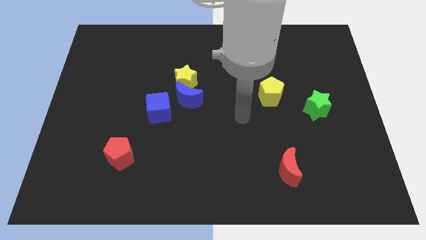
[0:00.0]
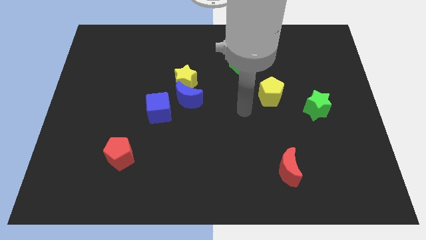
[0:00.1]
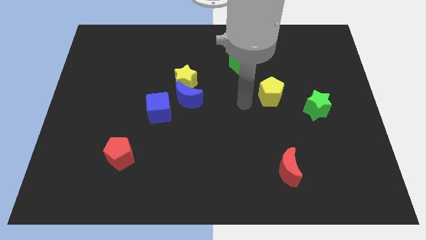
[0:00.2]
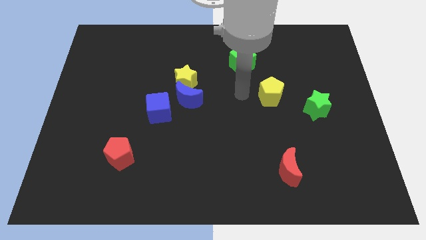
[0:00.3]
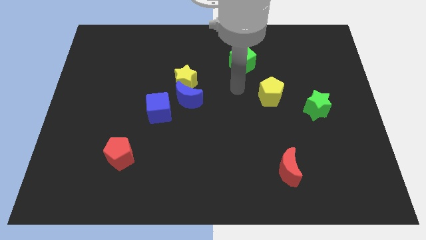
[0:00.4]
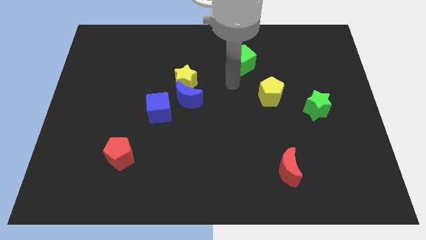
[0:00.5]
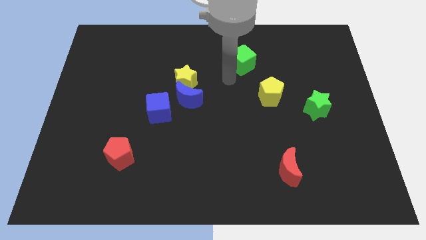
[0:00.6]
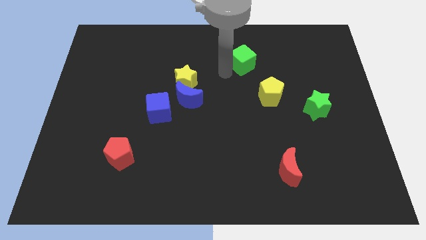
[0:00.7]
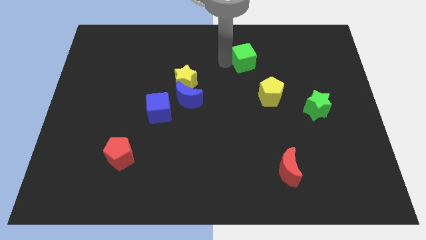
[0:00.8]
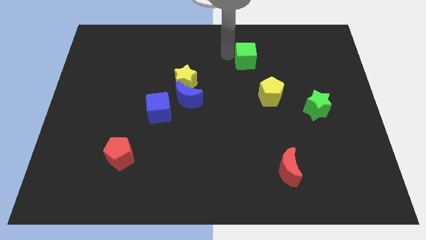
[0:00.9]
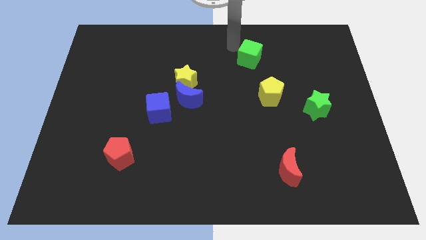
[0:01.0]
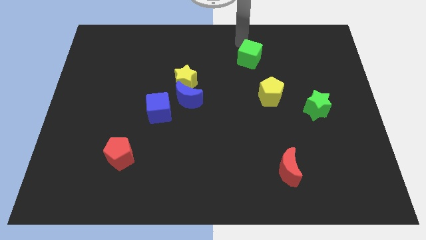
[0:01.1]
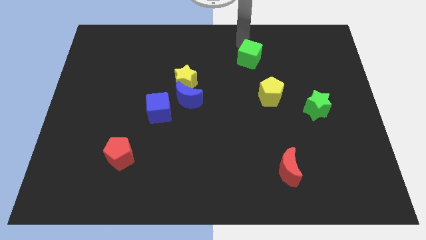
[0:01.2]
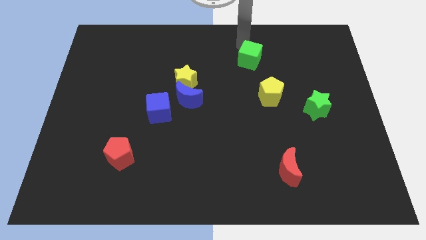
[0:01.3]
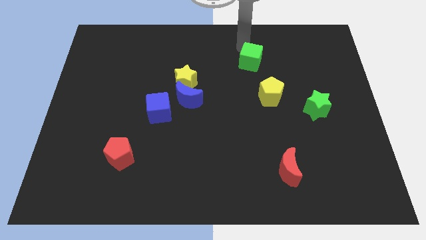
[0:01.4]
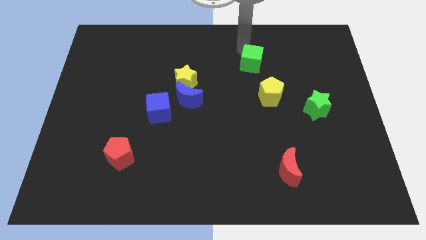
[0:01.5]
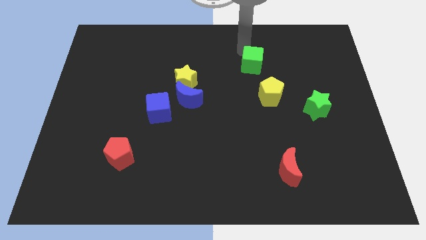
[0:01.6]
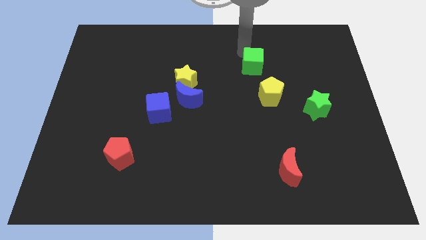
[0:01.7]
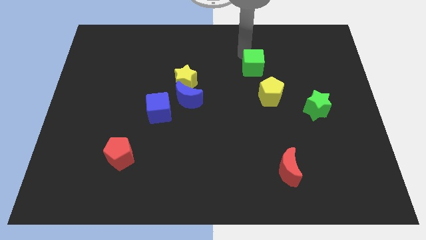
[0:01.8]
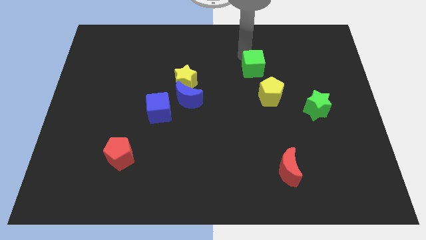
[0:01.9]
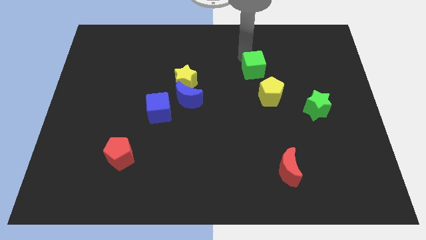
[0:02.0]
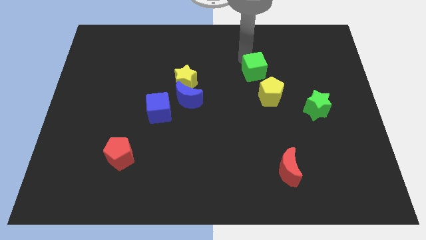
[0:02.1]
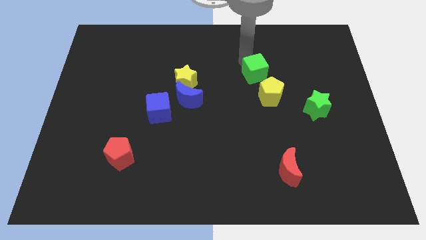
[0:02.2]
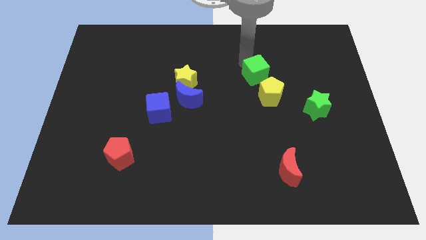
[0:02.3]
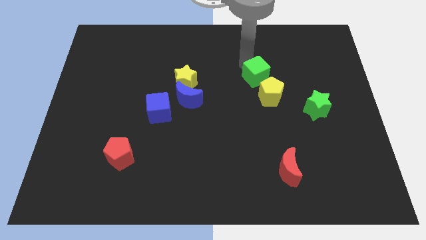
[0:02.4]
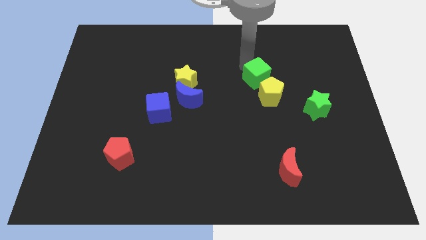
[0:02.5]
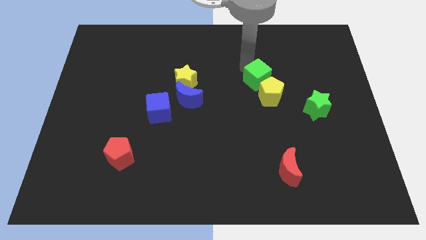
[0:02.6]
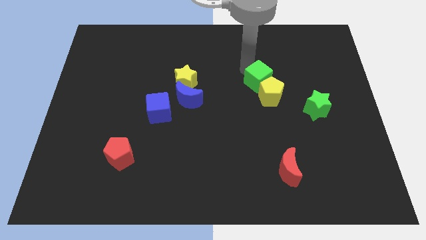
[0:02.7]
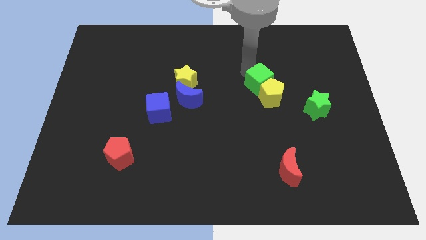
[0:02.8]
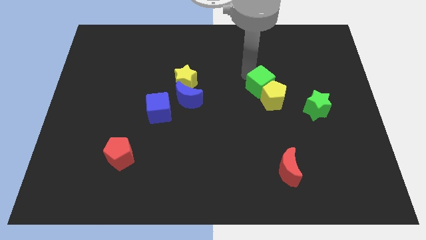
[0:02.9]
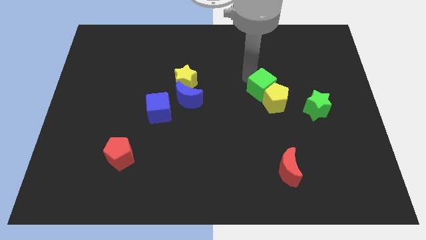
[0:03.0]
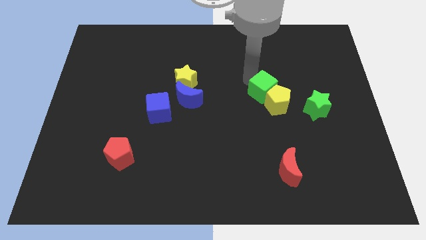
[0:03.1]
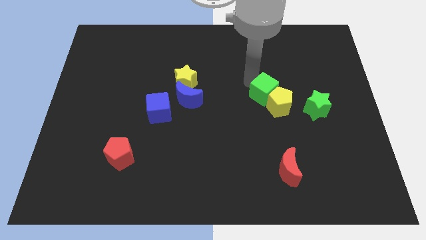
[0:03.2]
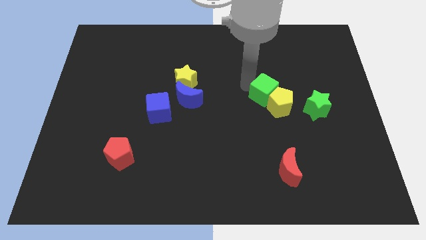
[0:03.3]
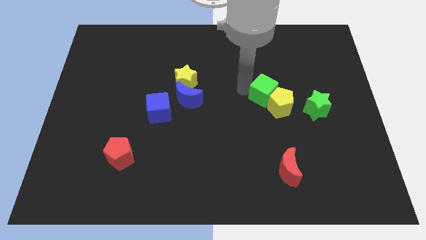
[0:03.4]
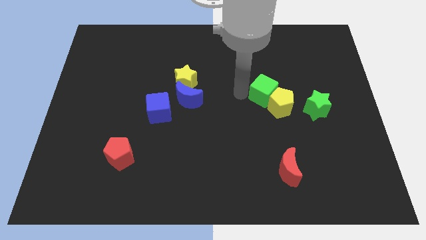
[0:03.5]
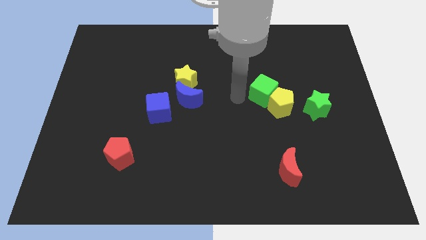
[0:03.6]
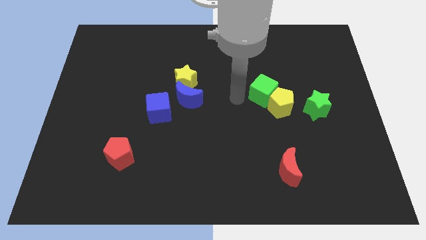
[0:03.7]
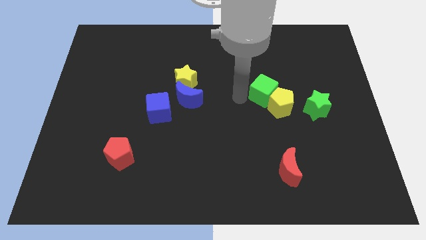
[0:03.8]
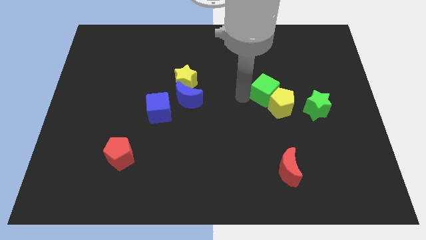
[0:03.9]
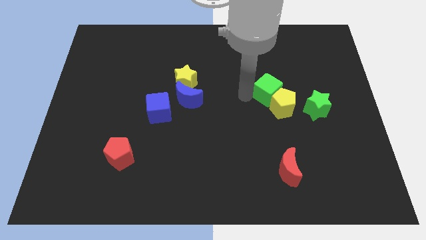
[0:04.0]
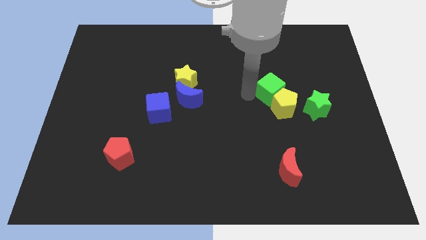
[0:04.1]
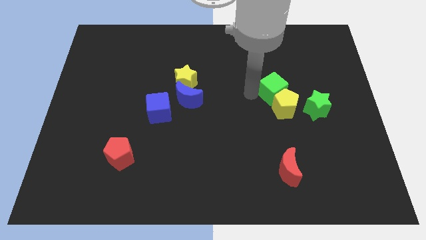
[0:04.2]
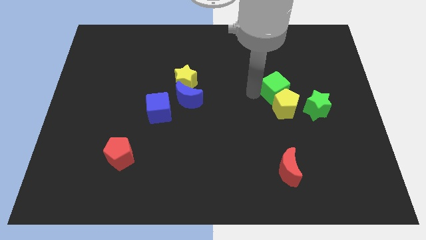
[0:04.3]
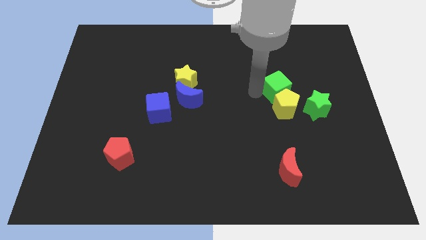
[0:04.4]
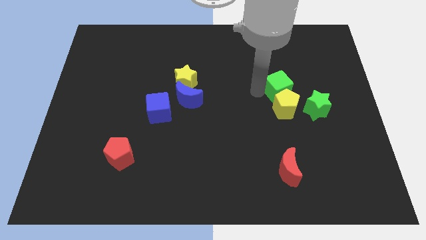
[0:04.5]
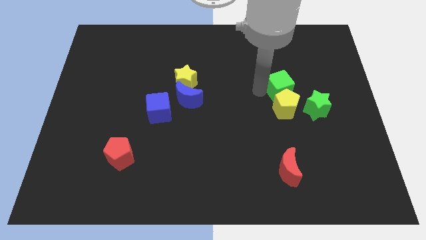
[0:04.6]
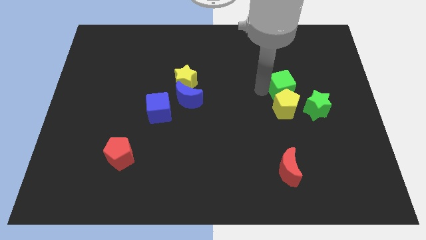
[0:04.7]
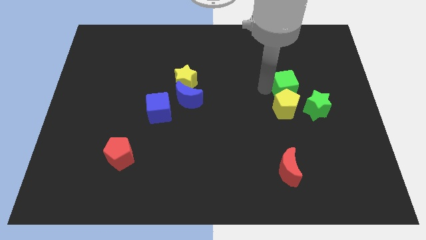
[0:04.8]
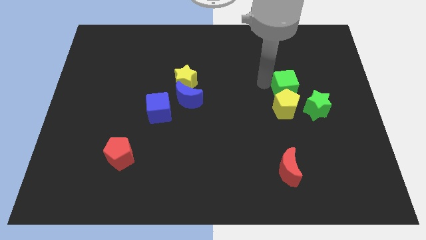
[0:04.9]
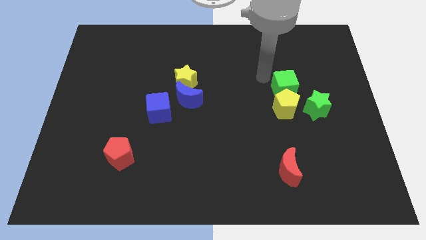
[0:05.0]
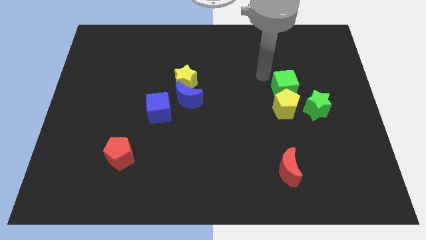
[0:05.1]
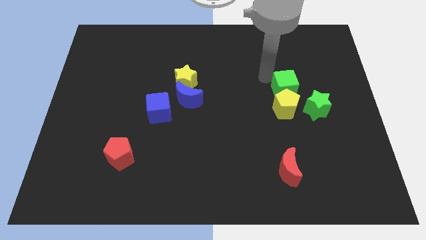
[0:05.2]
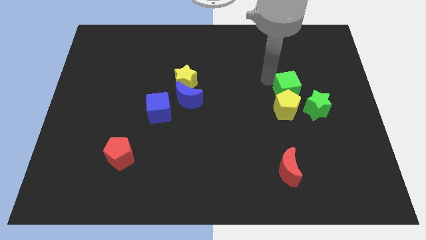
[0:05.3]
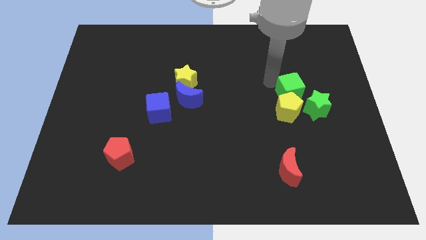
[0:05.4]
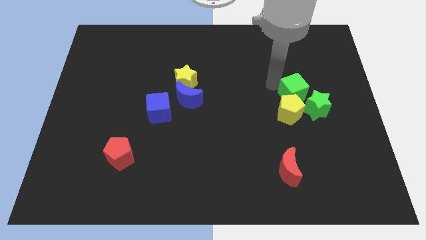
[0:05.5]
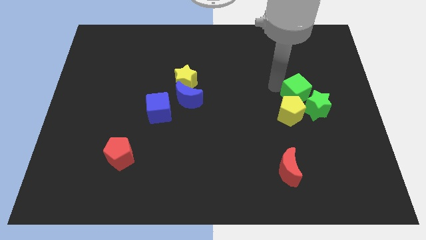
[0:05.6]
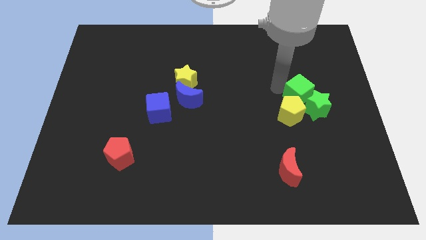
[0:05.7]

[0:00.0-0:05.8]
slide the green cube towards the green star

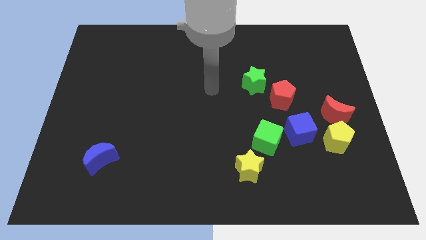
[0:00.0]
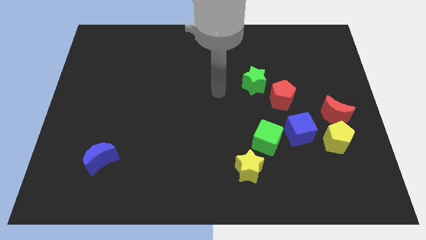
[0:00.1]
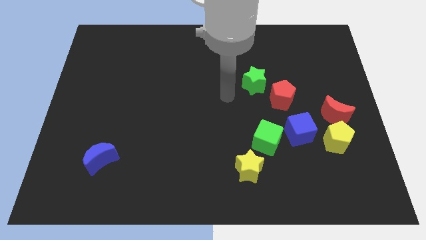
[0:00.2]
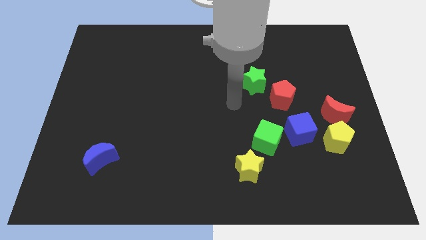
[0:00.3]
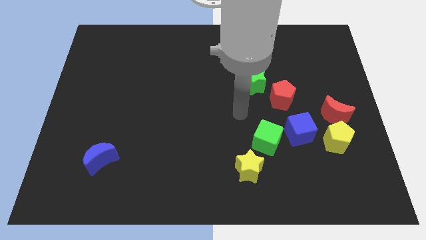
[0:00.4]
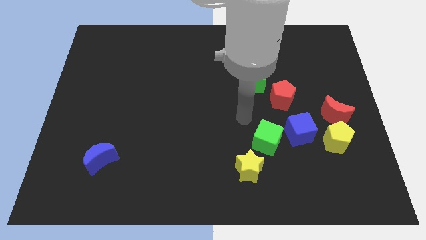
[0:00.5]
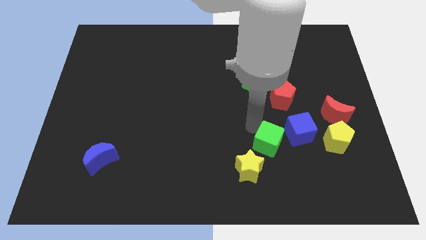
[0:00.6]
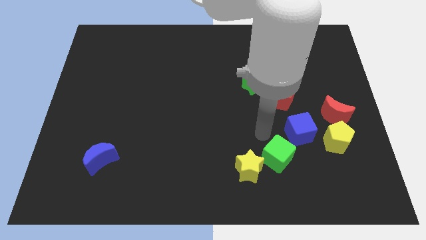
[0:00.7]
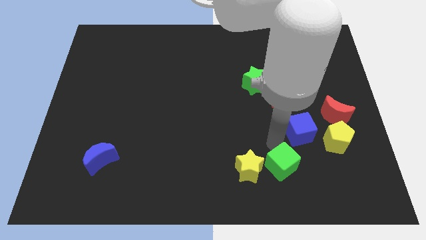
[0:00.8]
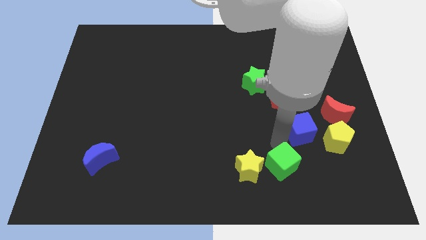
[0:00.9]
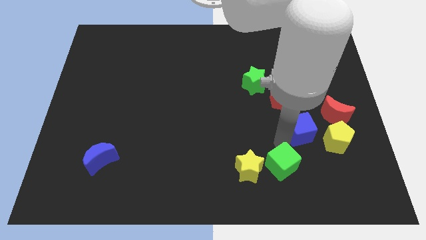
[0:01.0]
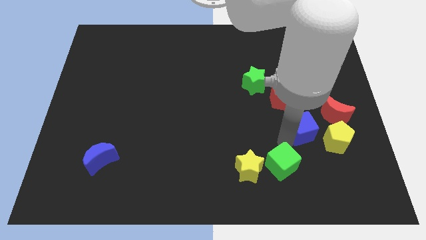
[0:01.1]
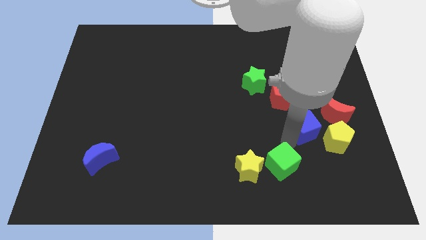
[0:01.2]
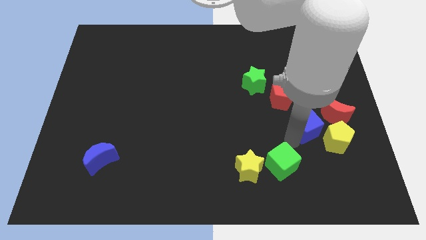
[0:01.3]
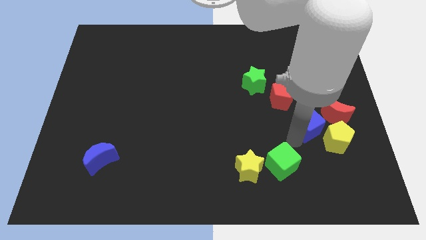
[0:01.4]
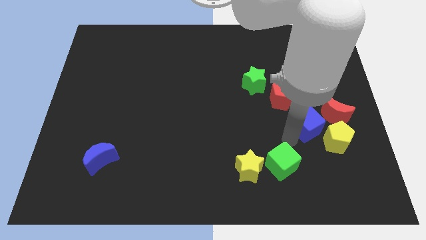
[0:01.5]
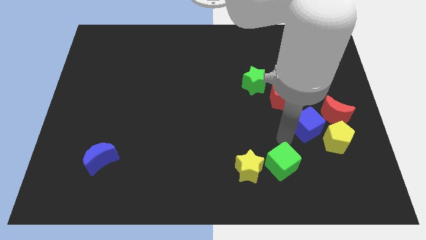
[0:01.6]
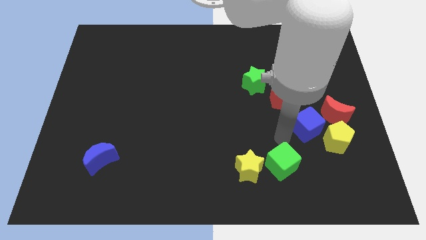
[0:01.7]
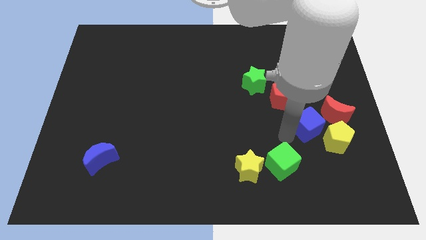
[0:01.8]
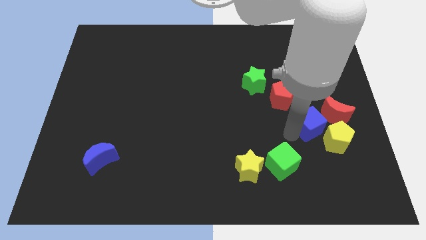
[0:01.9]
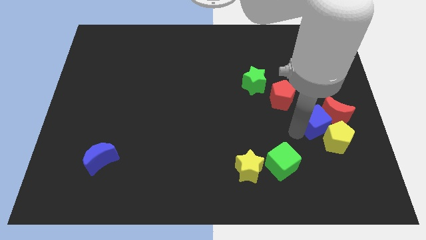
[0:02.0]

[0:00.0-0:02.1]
put the blue cube to the red moon
